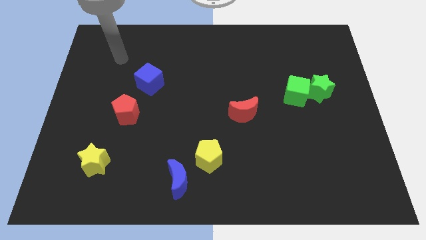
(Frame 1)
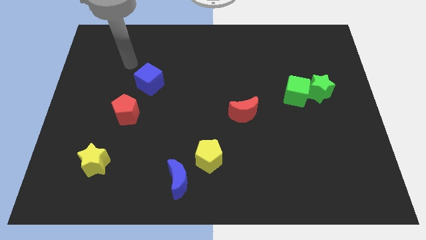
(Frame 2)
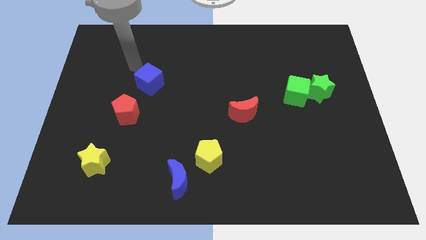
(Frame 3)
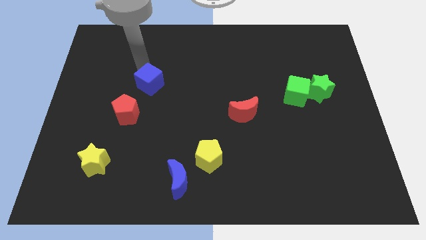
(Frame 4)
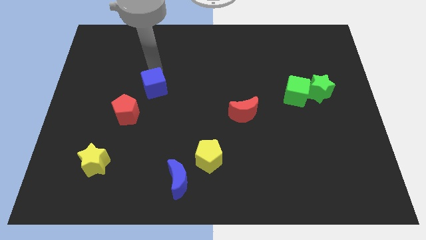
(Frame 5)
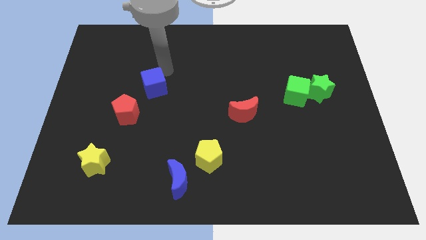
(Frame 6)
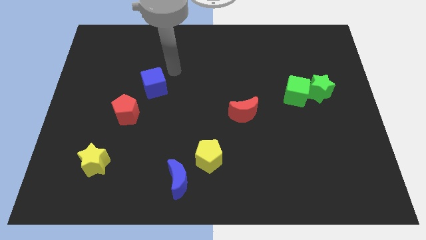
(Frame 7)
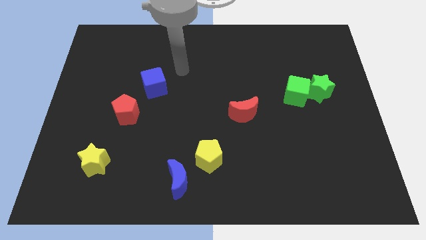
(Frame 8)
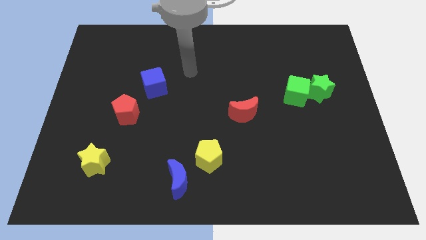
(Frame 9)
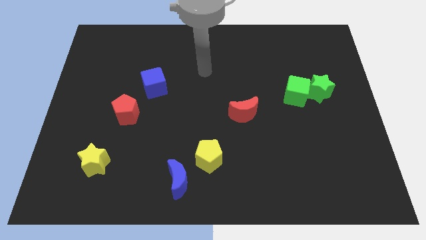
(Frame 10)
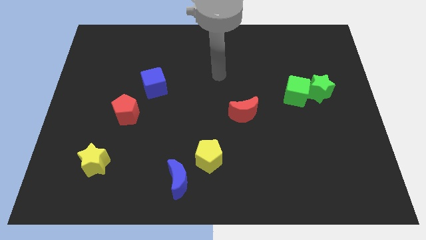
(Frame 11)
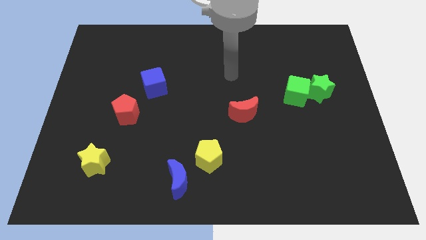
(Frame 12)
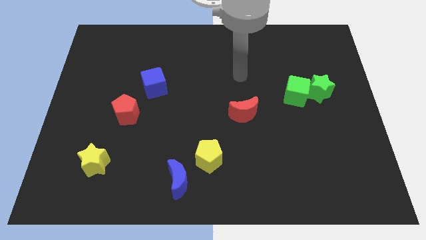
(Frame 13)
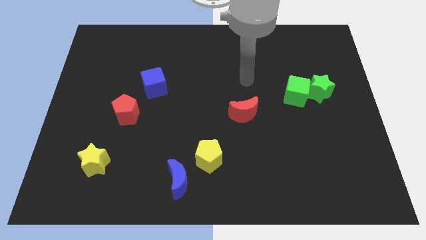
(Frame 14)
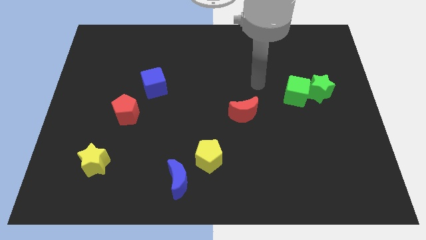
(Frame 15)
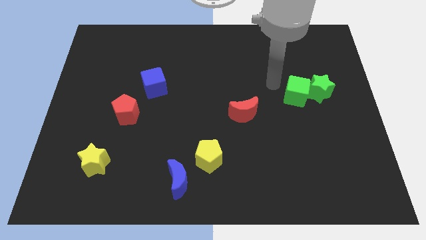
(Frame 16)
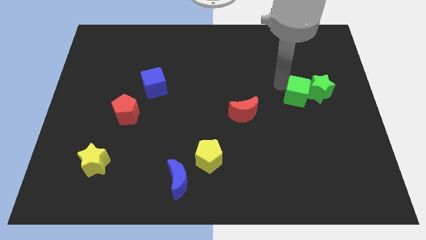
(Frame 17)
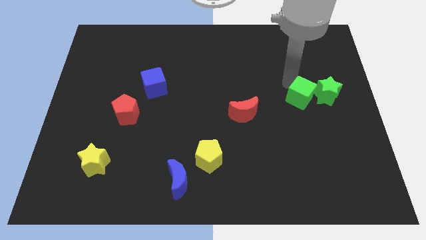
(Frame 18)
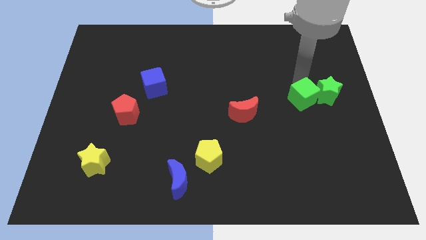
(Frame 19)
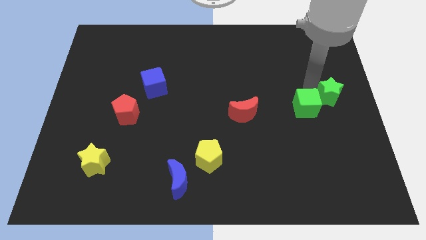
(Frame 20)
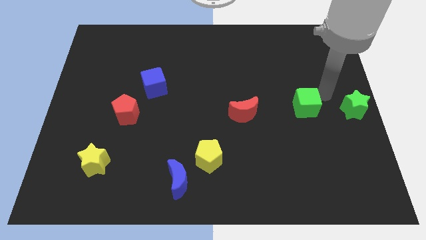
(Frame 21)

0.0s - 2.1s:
separate the green cube from the green star

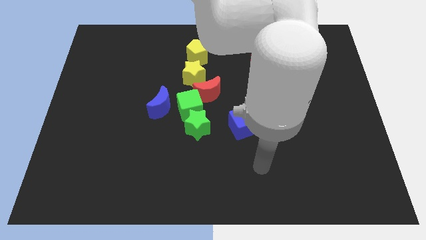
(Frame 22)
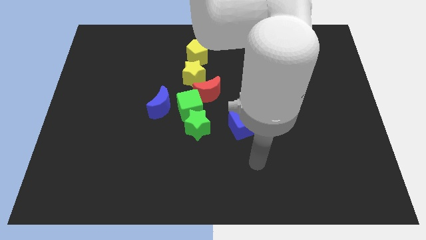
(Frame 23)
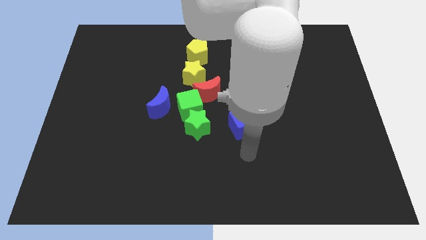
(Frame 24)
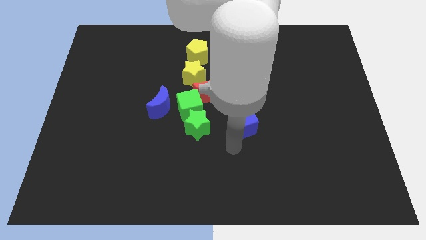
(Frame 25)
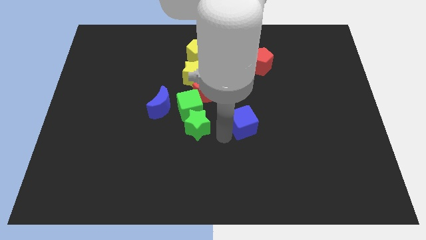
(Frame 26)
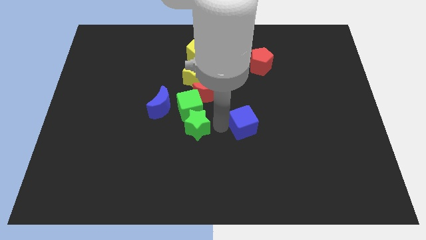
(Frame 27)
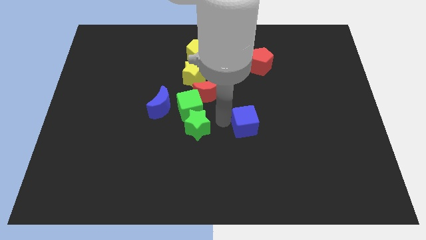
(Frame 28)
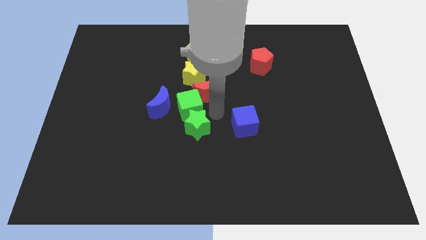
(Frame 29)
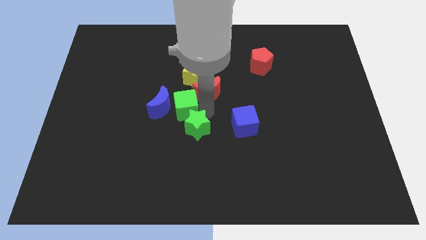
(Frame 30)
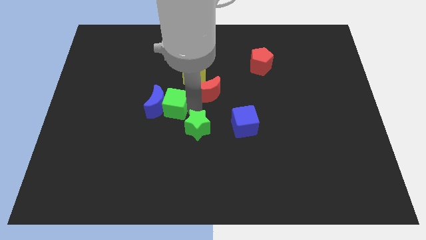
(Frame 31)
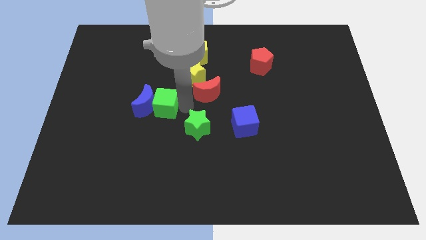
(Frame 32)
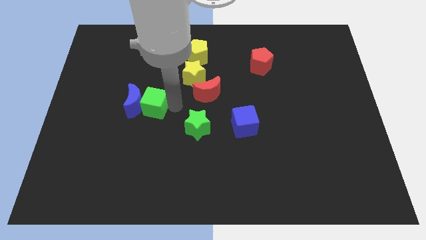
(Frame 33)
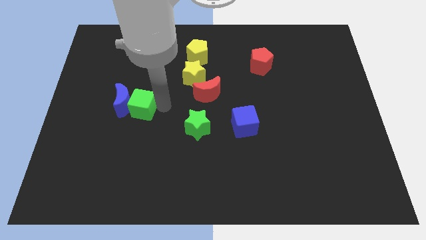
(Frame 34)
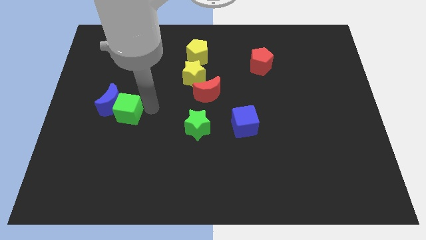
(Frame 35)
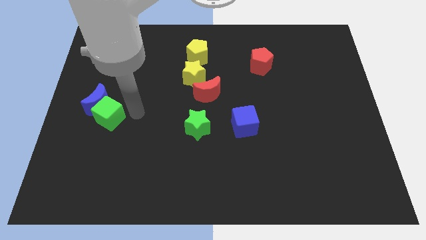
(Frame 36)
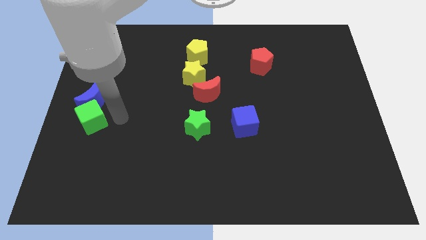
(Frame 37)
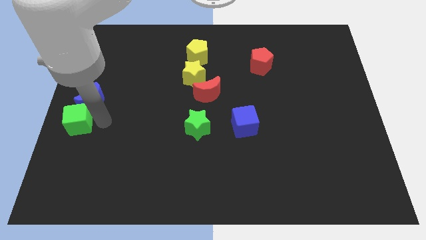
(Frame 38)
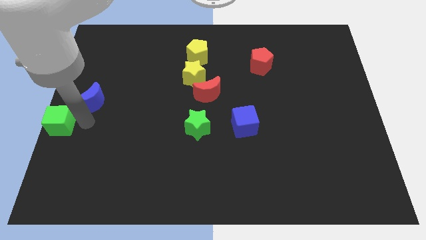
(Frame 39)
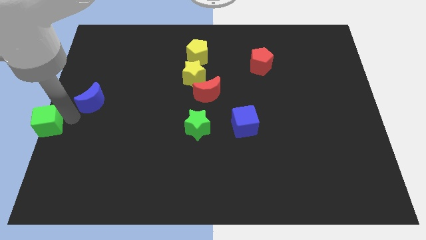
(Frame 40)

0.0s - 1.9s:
pull the blue moon apart from the green cube

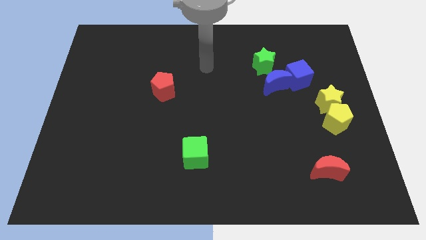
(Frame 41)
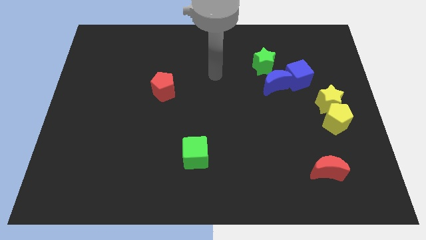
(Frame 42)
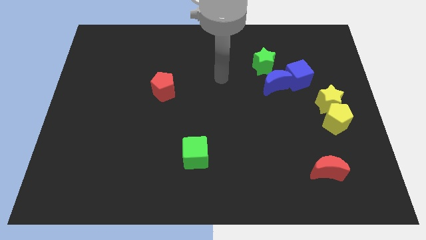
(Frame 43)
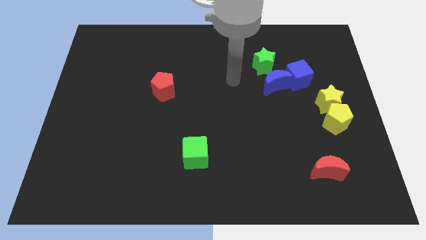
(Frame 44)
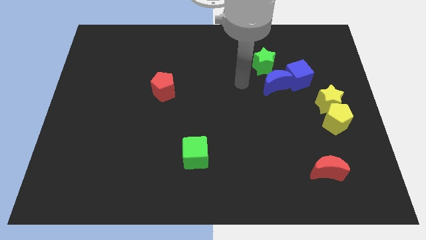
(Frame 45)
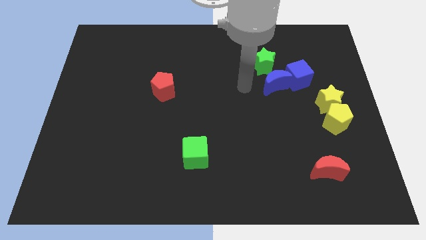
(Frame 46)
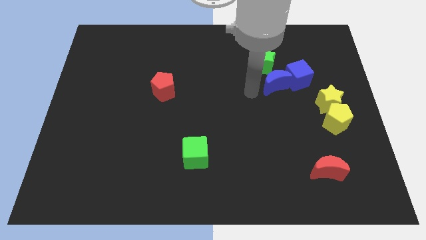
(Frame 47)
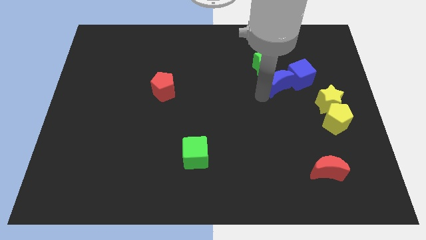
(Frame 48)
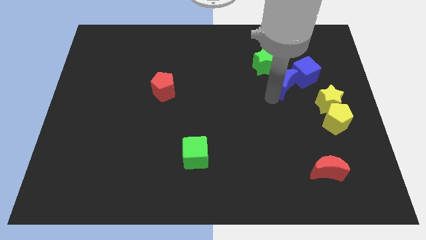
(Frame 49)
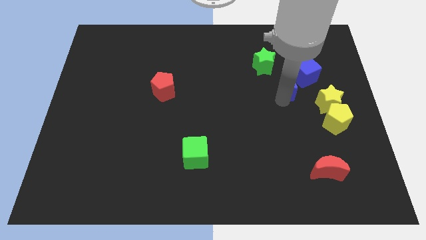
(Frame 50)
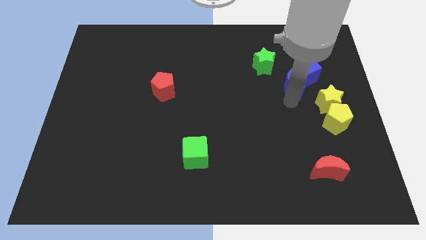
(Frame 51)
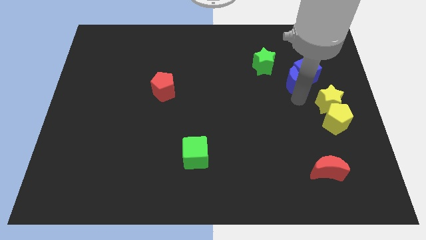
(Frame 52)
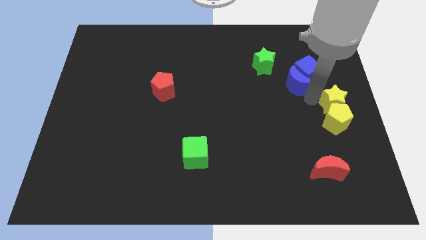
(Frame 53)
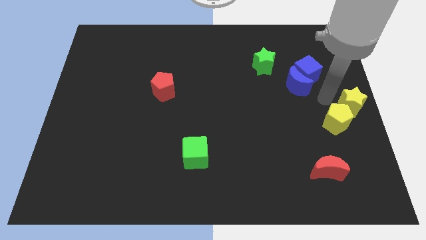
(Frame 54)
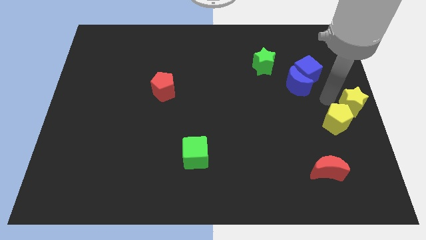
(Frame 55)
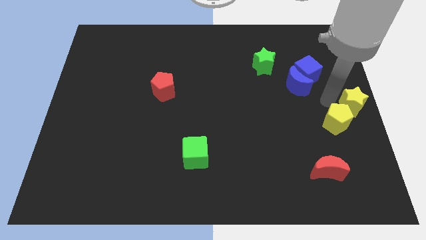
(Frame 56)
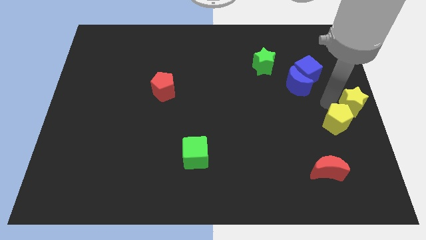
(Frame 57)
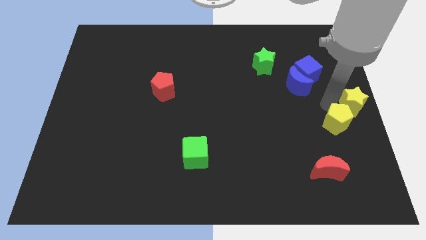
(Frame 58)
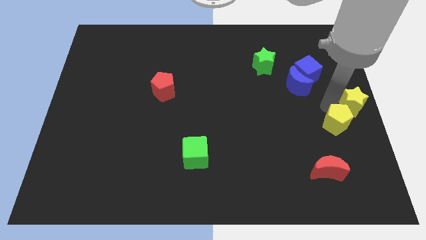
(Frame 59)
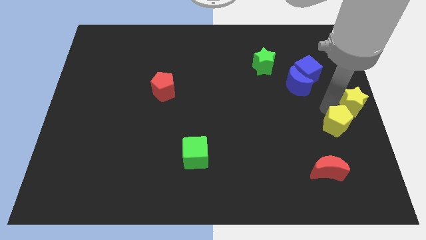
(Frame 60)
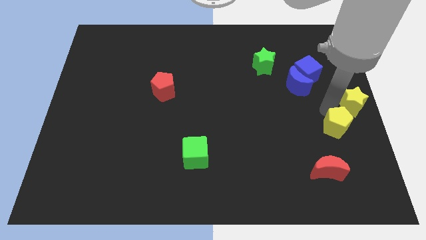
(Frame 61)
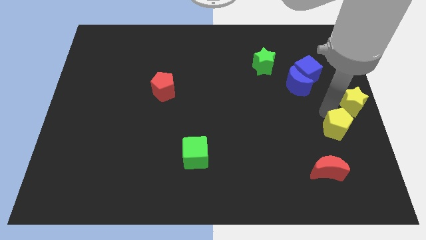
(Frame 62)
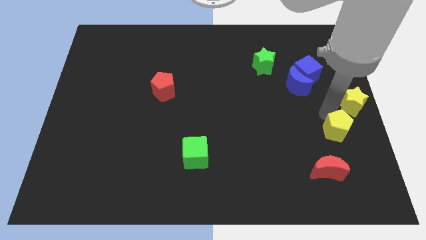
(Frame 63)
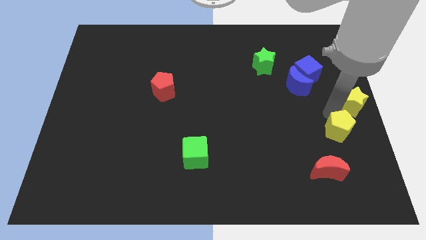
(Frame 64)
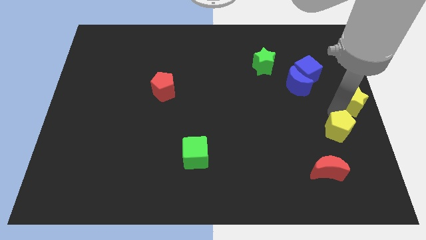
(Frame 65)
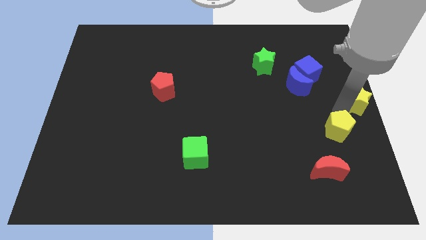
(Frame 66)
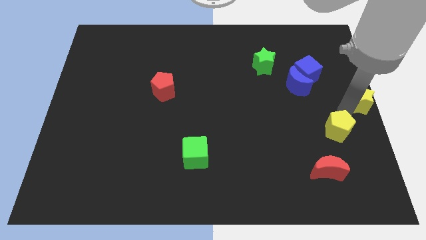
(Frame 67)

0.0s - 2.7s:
separate the yellow pentagon from the yellow star

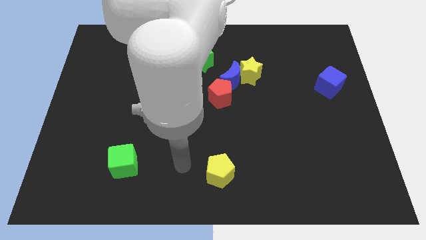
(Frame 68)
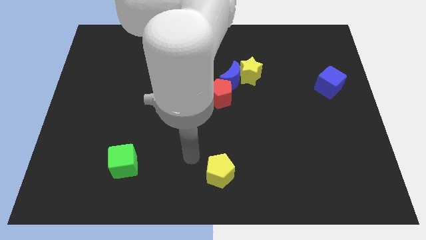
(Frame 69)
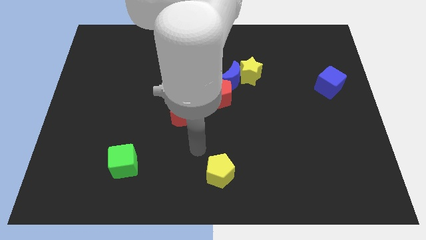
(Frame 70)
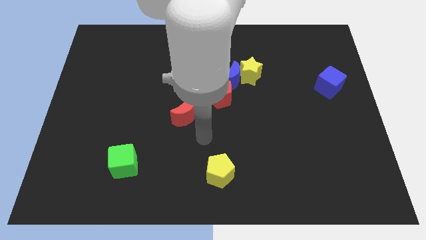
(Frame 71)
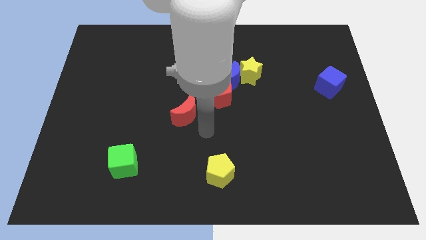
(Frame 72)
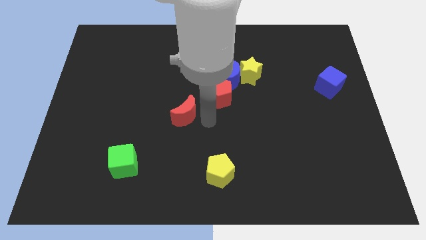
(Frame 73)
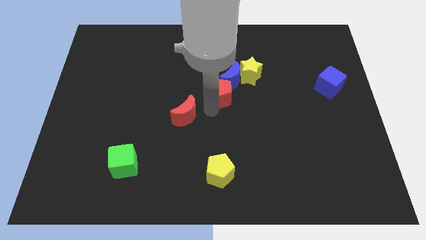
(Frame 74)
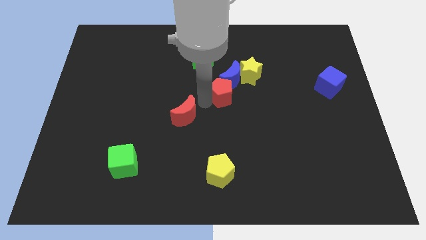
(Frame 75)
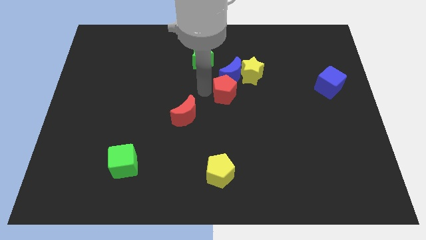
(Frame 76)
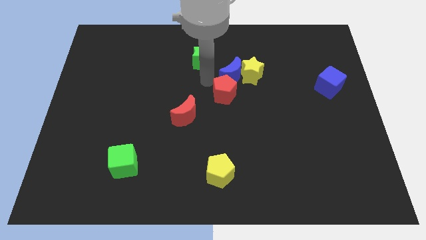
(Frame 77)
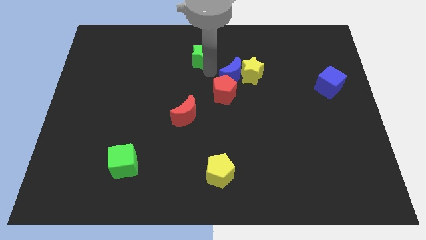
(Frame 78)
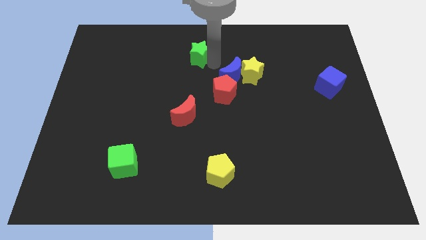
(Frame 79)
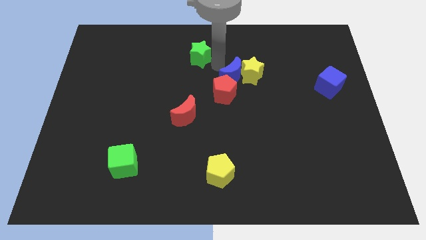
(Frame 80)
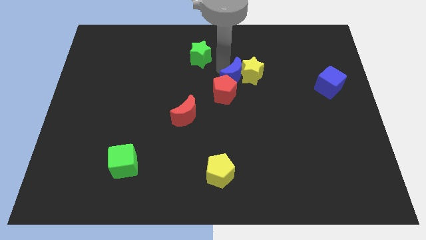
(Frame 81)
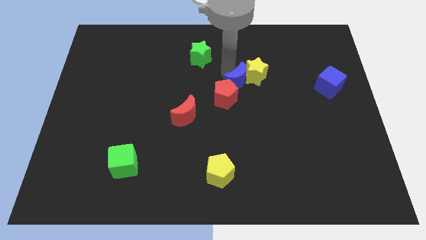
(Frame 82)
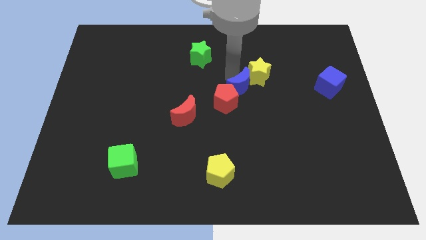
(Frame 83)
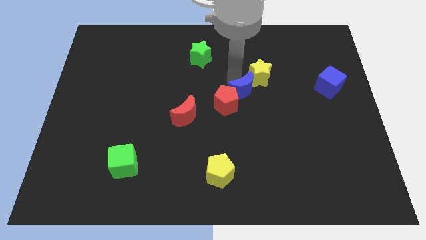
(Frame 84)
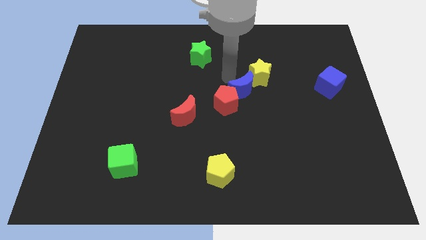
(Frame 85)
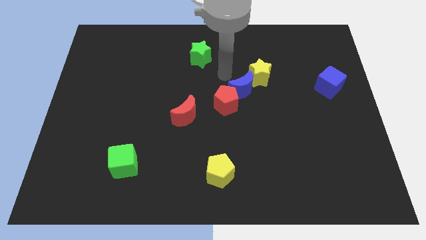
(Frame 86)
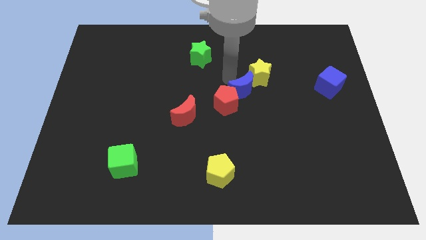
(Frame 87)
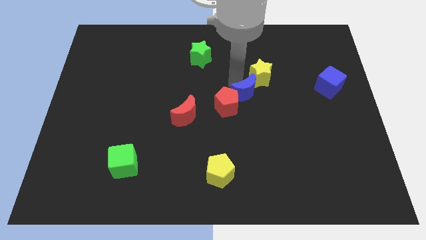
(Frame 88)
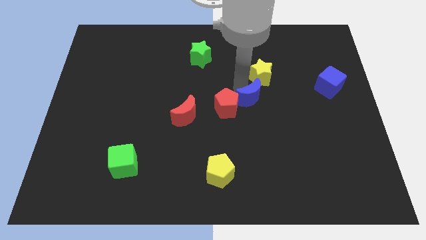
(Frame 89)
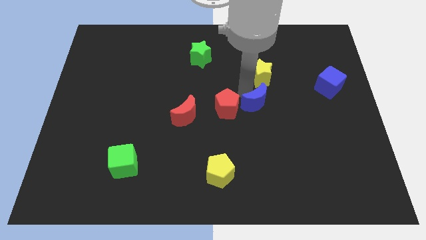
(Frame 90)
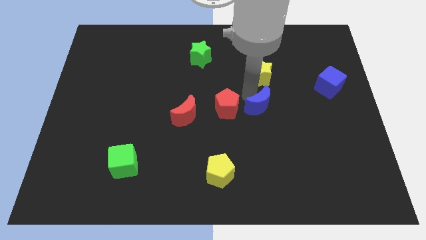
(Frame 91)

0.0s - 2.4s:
move the blue moon away from the yellow star, red pentagon, and green star

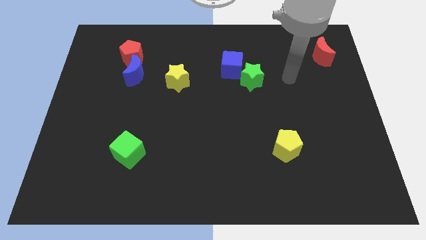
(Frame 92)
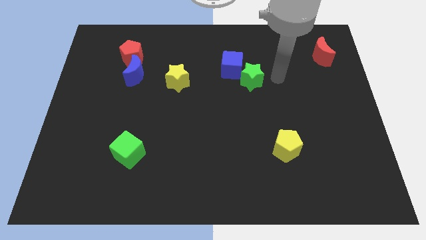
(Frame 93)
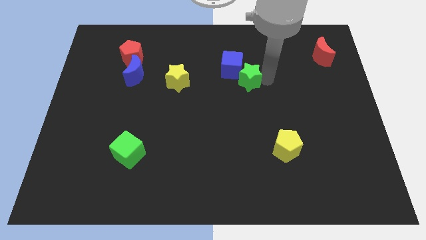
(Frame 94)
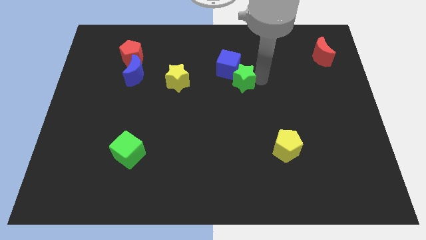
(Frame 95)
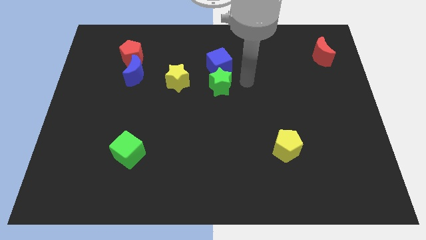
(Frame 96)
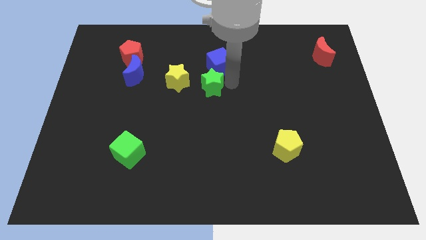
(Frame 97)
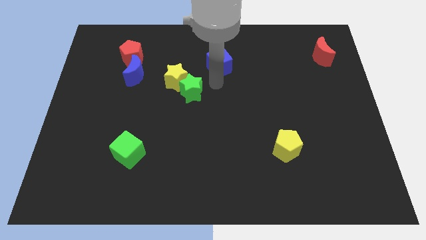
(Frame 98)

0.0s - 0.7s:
pull the blue cube apart from the green star
